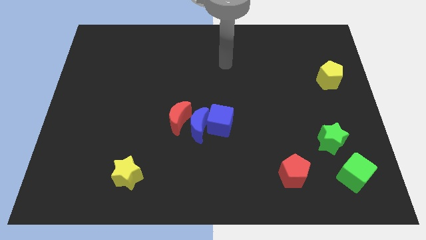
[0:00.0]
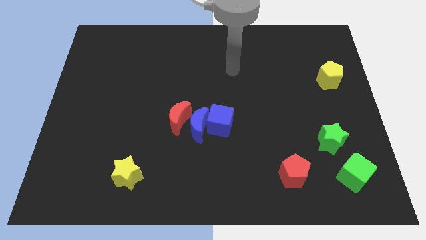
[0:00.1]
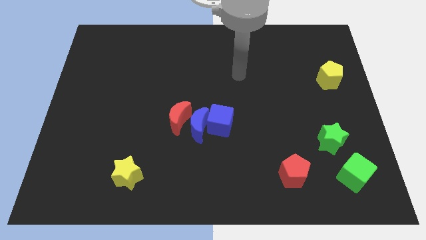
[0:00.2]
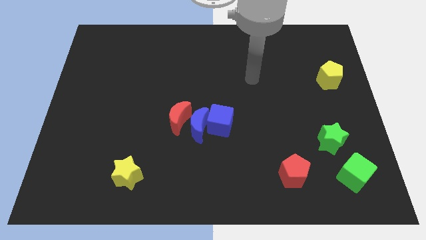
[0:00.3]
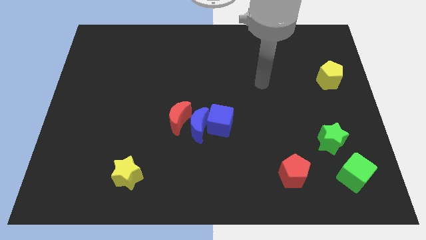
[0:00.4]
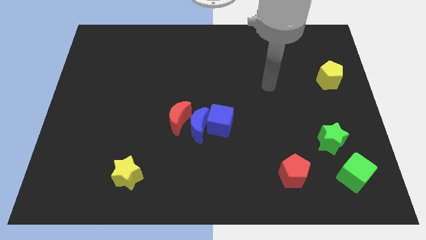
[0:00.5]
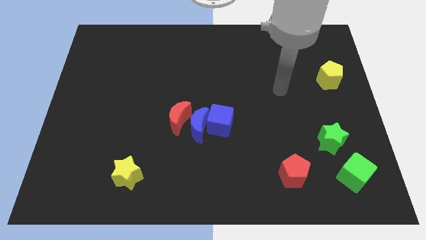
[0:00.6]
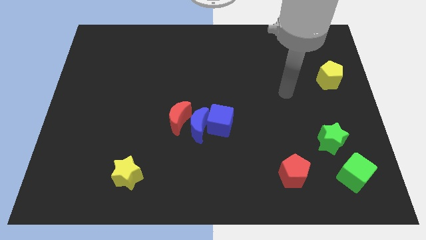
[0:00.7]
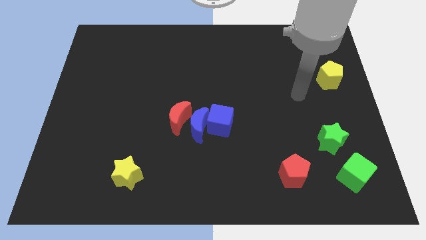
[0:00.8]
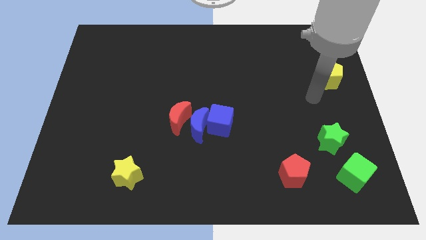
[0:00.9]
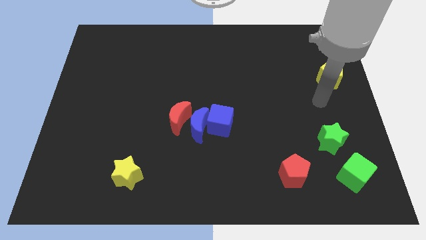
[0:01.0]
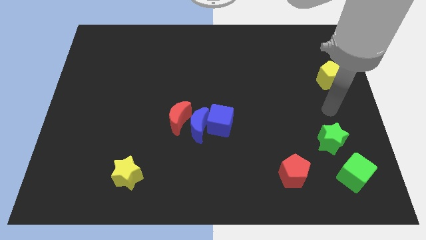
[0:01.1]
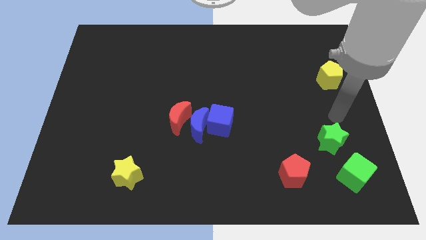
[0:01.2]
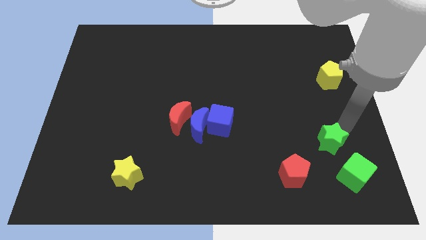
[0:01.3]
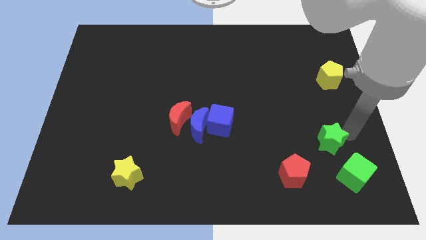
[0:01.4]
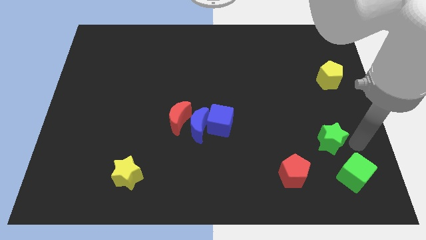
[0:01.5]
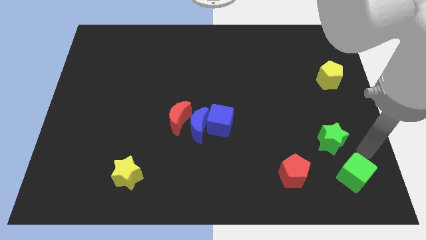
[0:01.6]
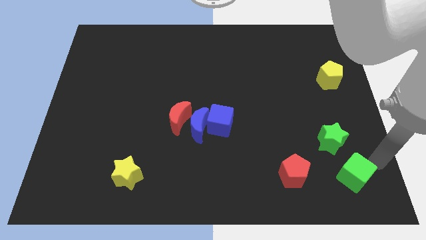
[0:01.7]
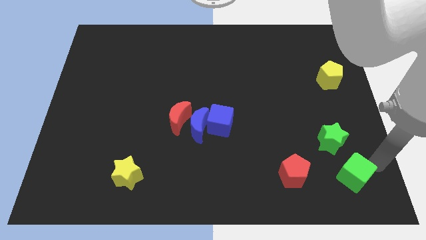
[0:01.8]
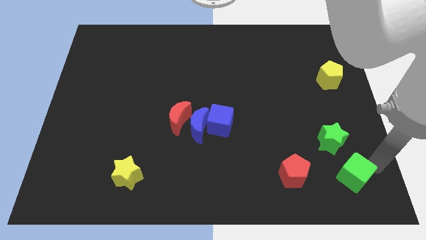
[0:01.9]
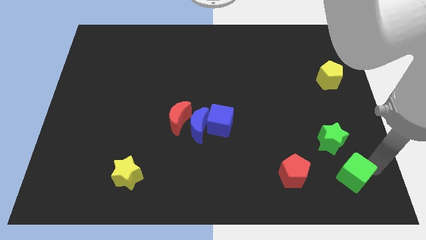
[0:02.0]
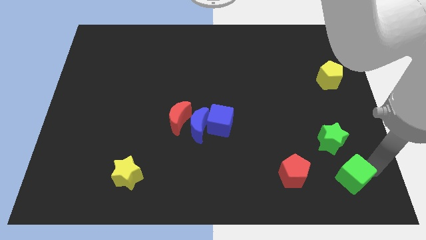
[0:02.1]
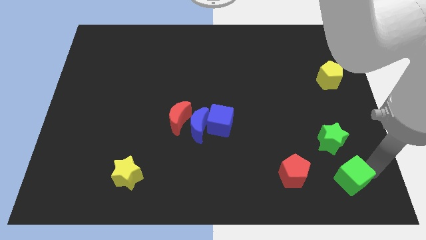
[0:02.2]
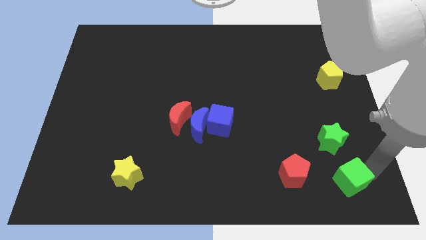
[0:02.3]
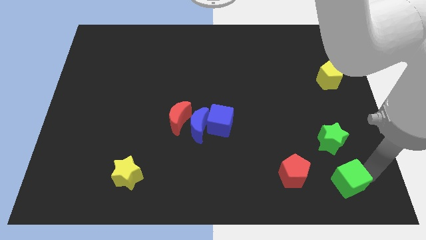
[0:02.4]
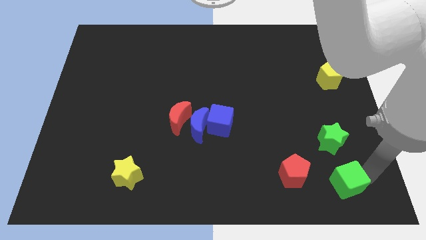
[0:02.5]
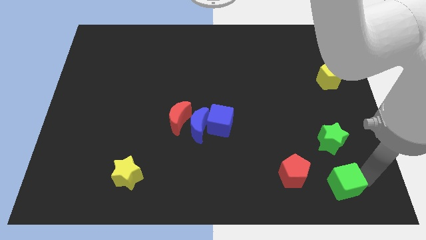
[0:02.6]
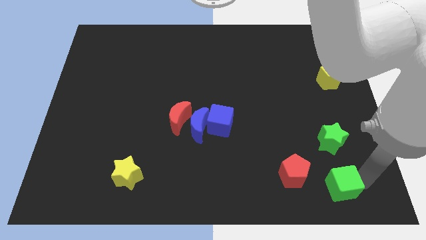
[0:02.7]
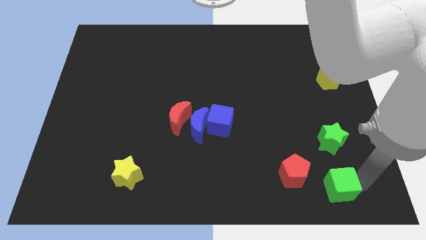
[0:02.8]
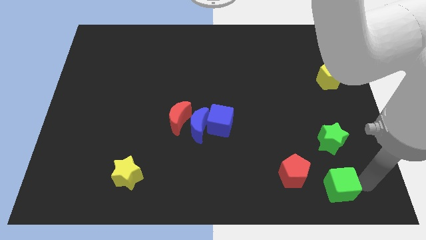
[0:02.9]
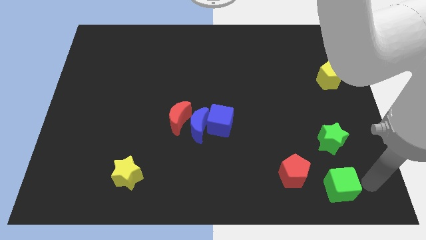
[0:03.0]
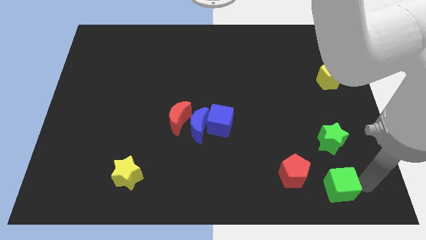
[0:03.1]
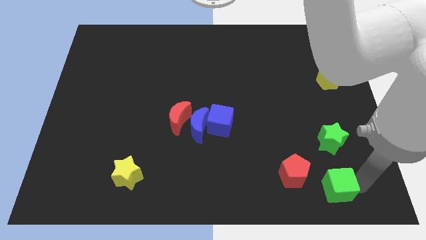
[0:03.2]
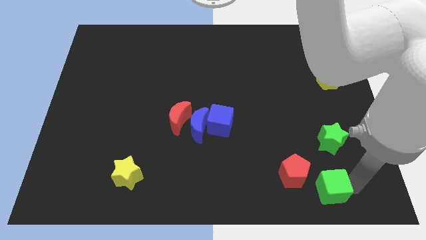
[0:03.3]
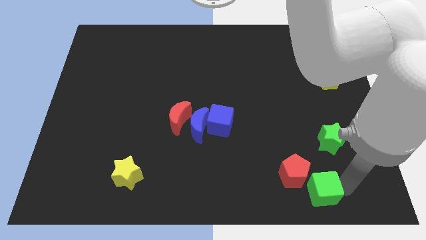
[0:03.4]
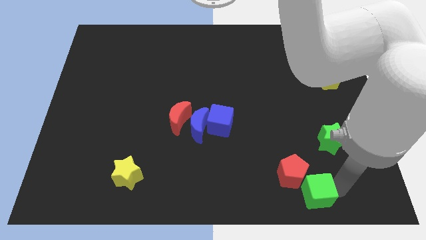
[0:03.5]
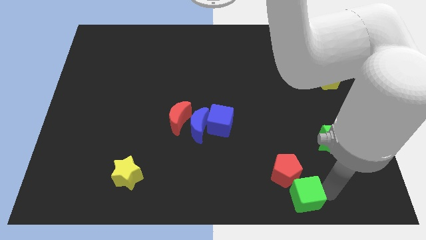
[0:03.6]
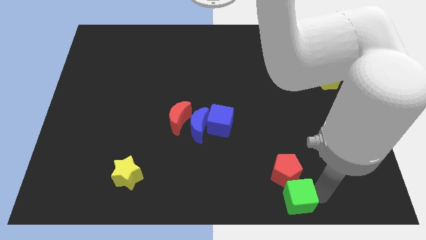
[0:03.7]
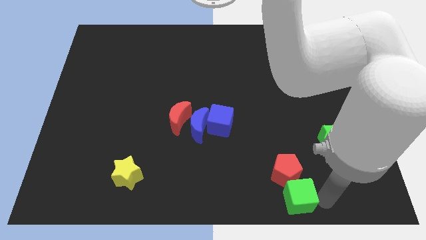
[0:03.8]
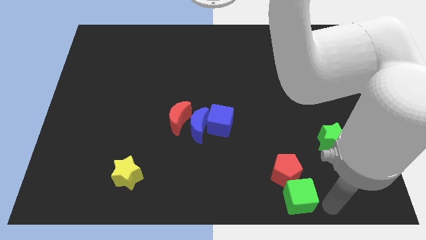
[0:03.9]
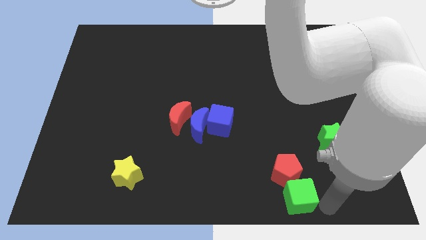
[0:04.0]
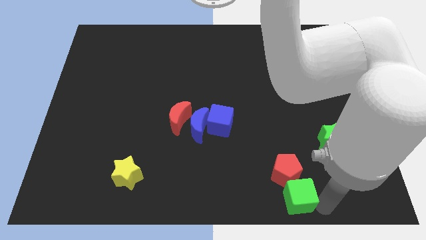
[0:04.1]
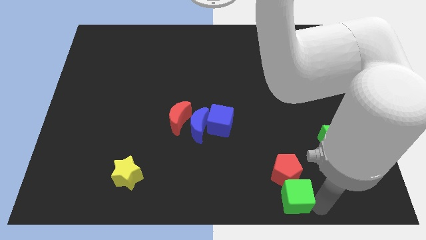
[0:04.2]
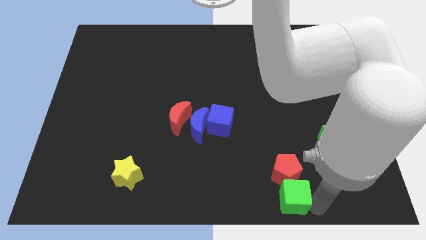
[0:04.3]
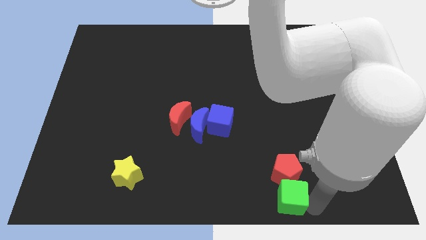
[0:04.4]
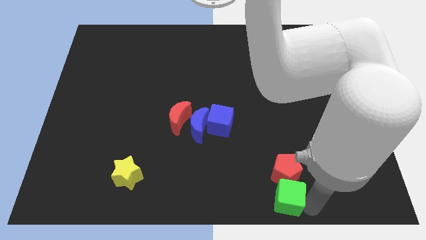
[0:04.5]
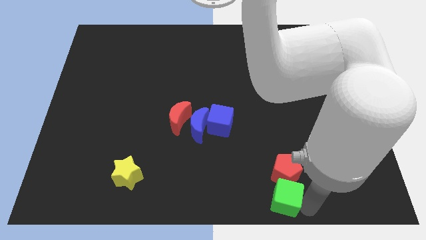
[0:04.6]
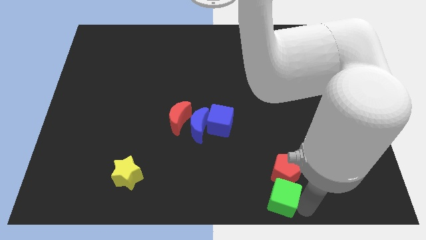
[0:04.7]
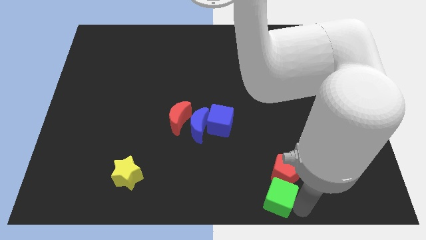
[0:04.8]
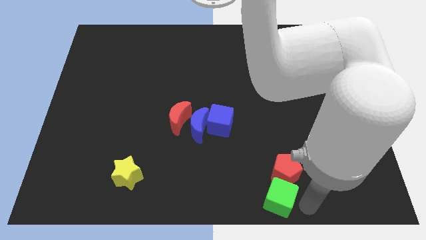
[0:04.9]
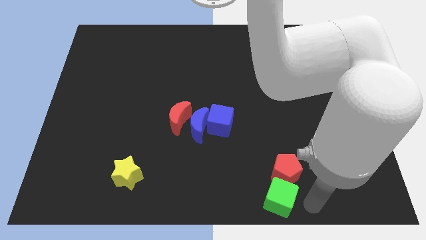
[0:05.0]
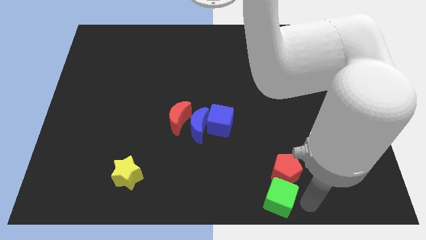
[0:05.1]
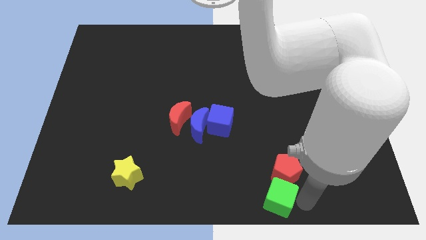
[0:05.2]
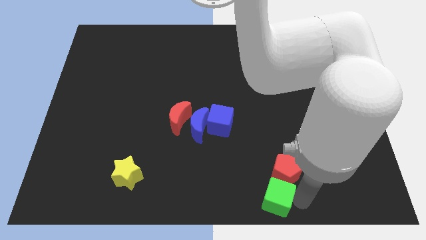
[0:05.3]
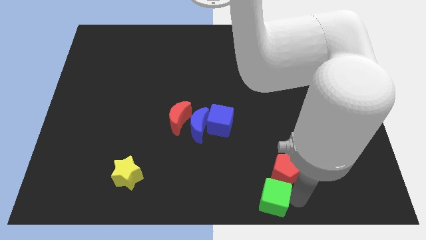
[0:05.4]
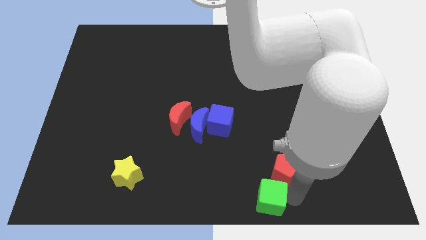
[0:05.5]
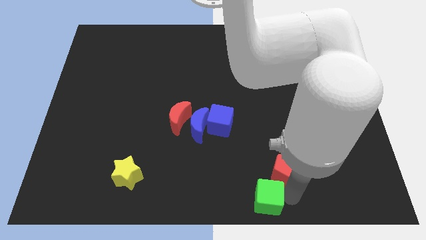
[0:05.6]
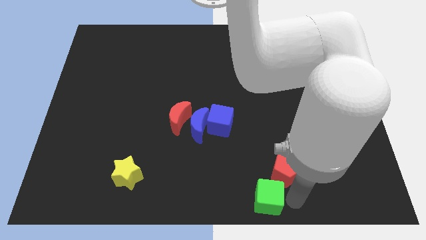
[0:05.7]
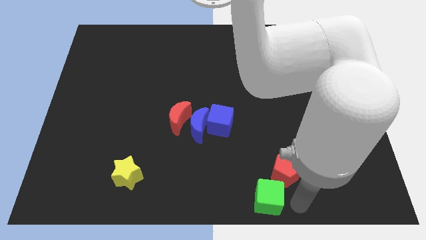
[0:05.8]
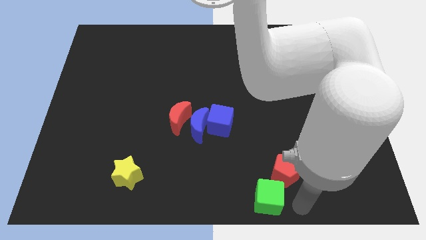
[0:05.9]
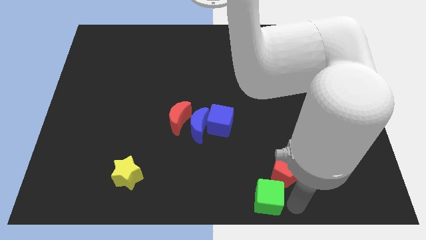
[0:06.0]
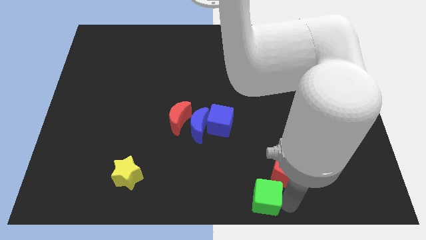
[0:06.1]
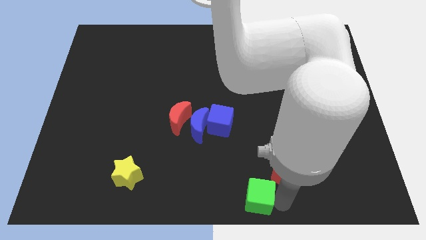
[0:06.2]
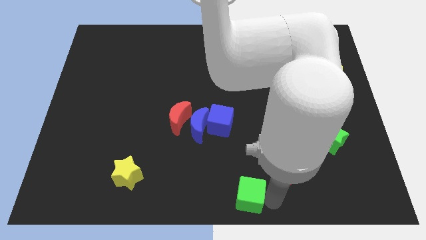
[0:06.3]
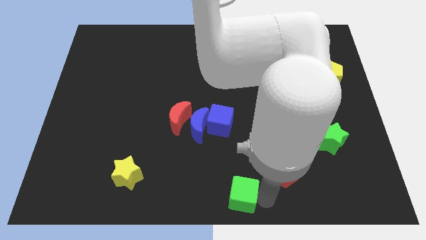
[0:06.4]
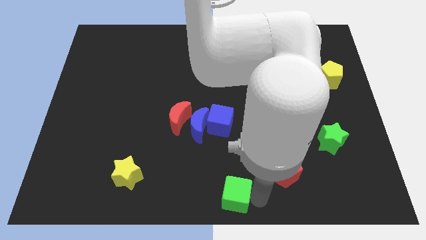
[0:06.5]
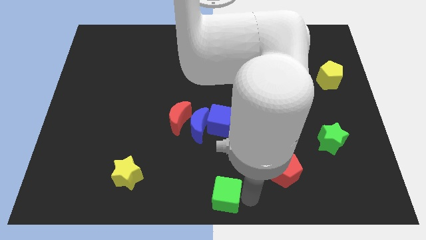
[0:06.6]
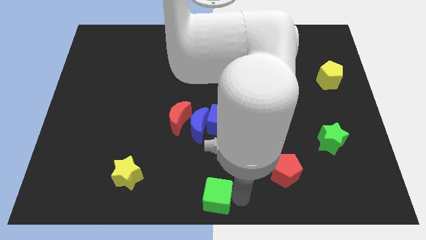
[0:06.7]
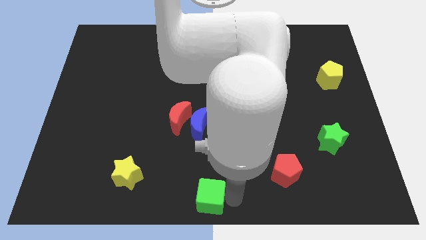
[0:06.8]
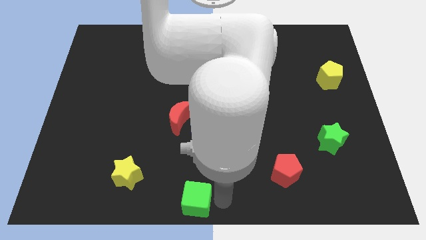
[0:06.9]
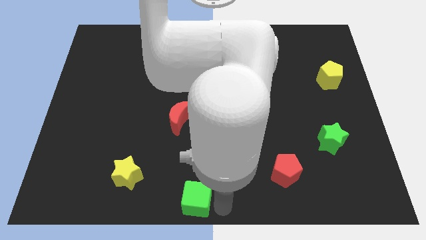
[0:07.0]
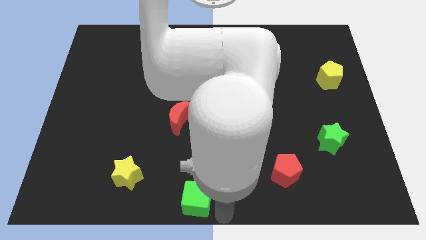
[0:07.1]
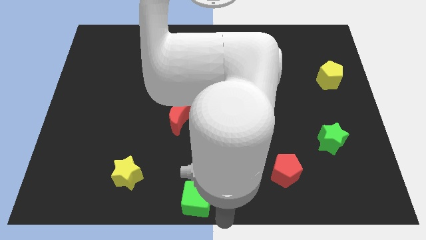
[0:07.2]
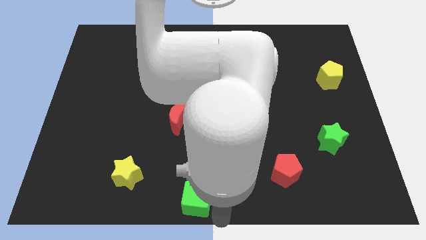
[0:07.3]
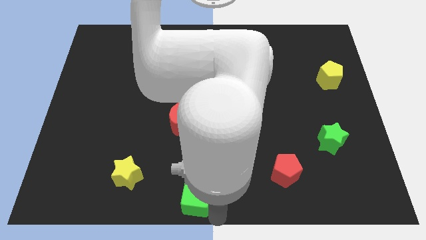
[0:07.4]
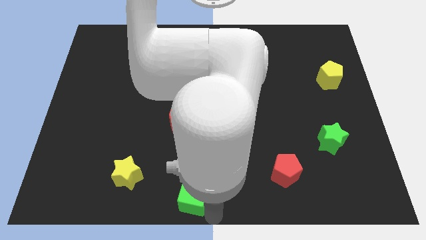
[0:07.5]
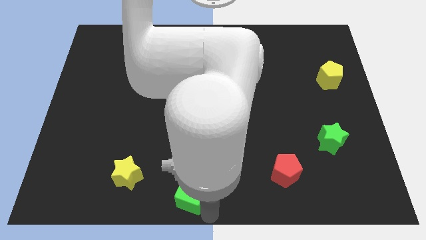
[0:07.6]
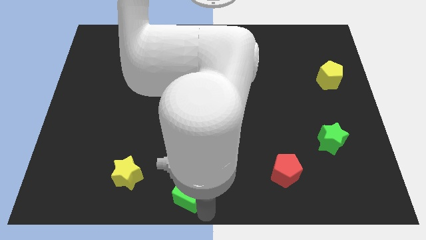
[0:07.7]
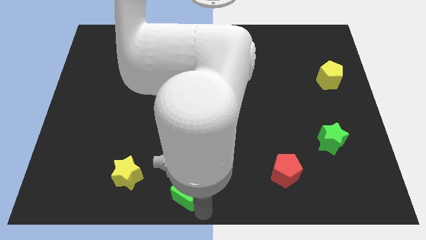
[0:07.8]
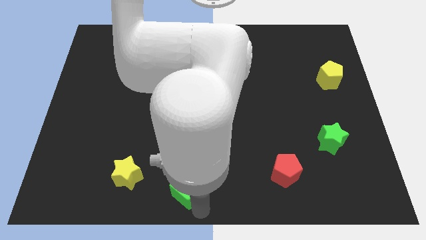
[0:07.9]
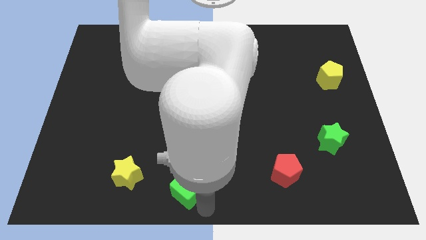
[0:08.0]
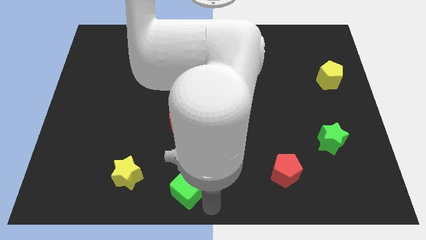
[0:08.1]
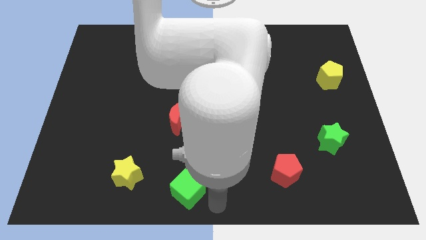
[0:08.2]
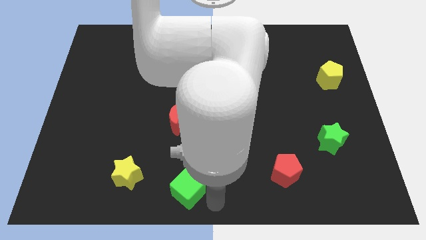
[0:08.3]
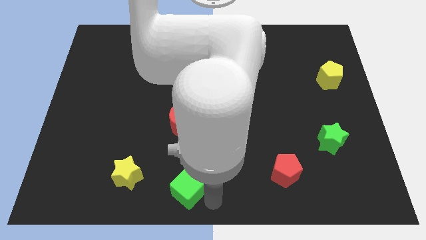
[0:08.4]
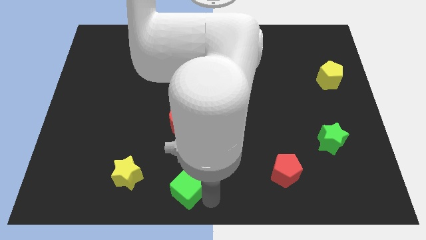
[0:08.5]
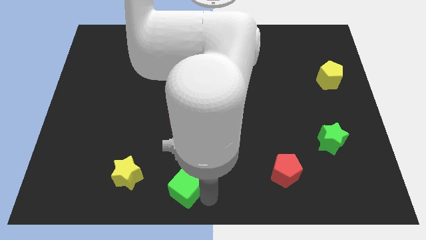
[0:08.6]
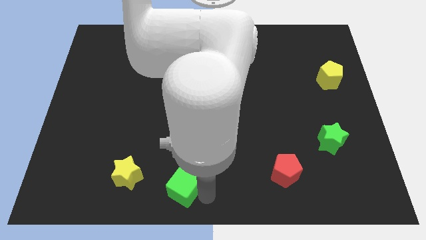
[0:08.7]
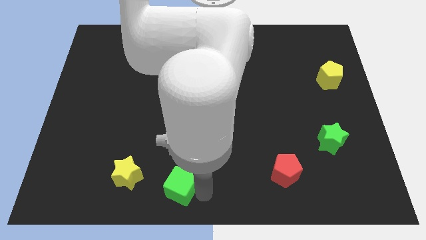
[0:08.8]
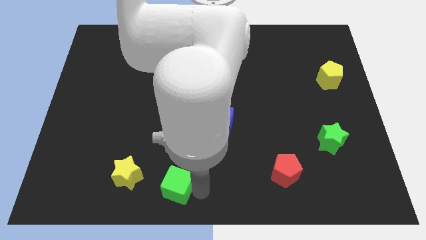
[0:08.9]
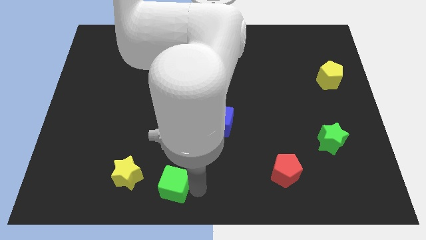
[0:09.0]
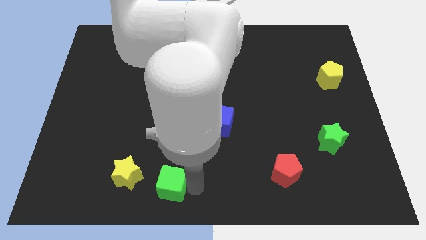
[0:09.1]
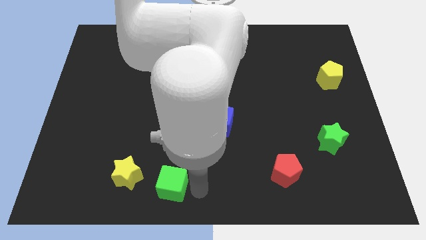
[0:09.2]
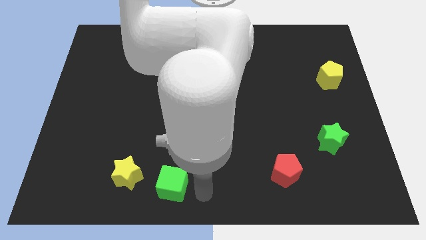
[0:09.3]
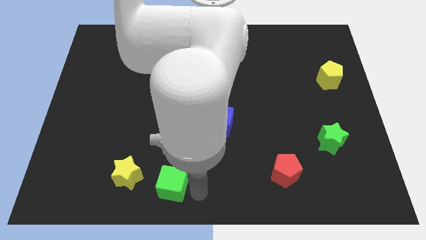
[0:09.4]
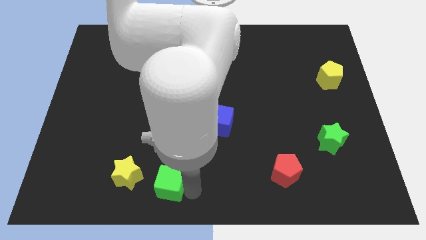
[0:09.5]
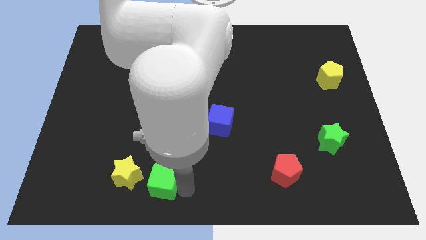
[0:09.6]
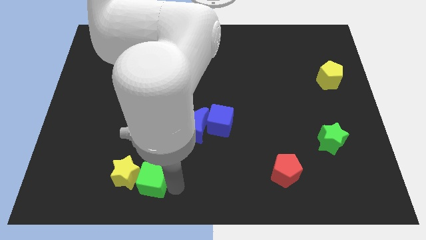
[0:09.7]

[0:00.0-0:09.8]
slide the green cube towards the yellow star
